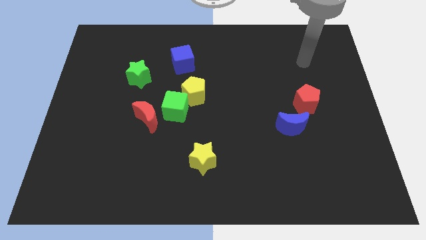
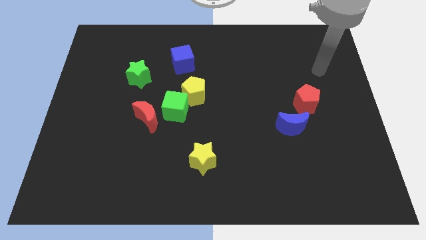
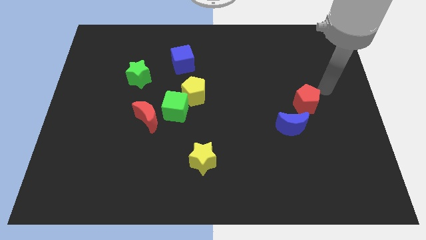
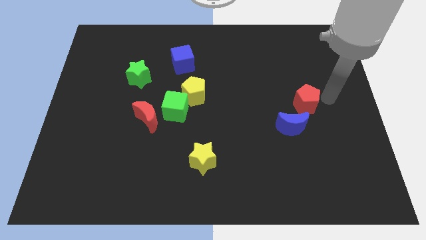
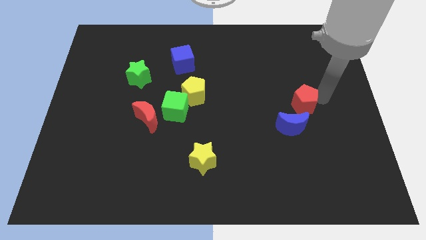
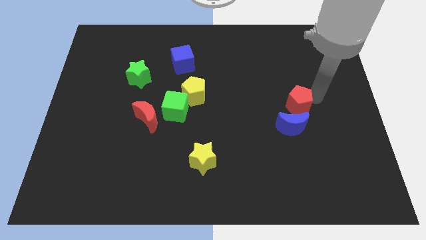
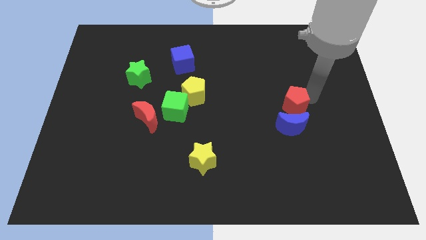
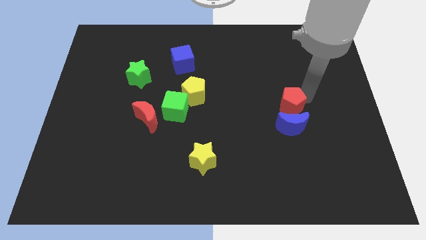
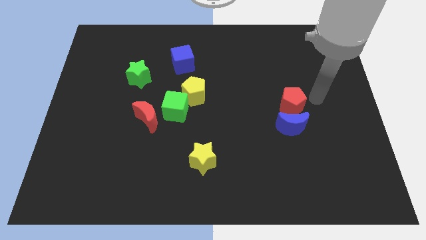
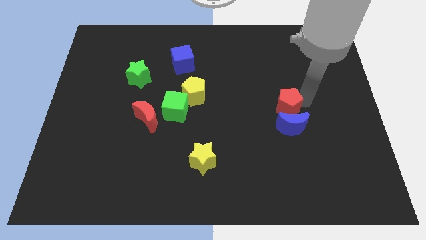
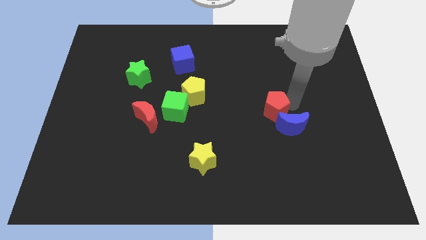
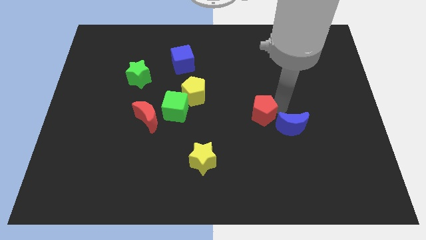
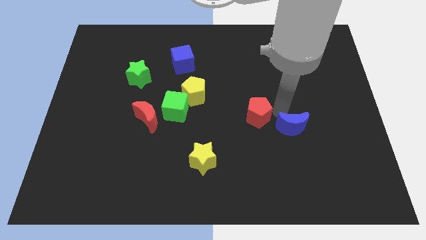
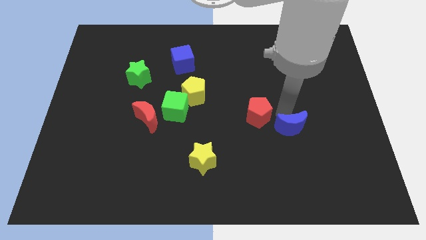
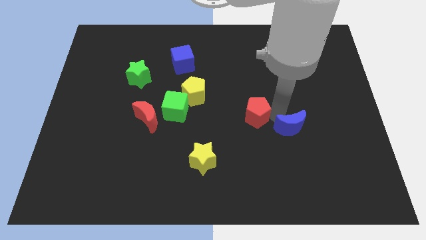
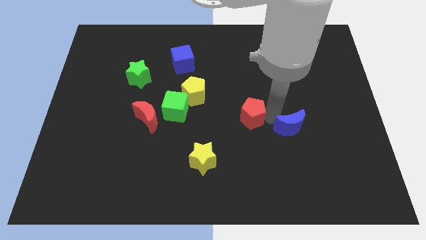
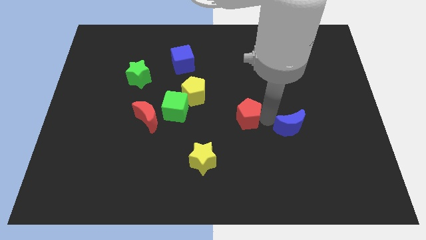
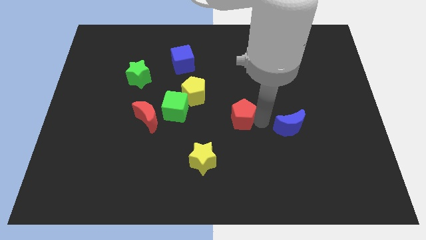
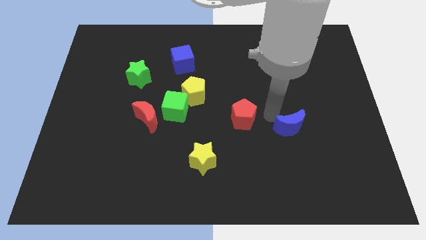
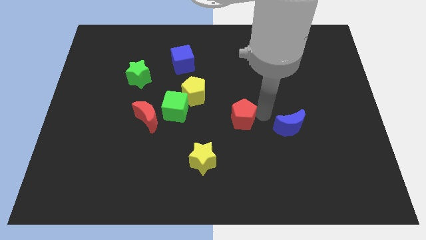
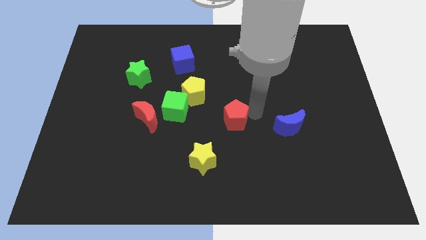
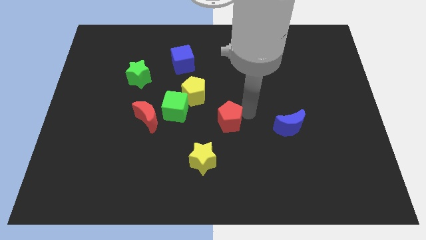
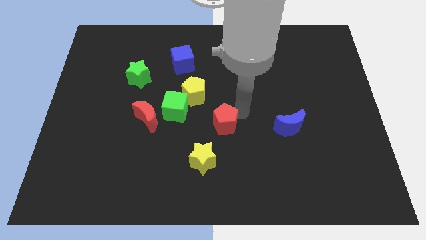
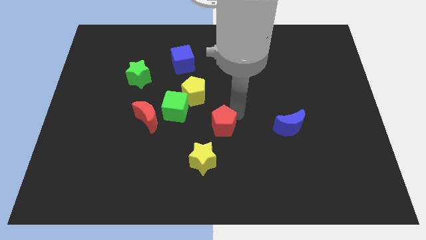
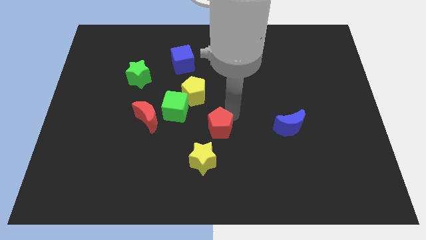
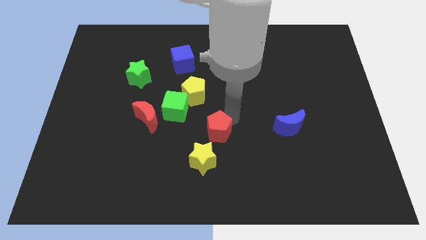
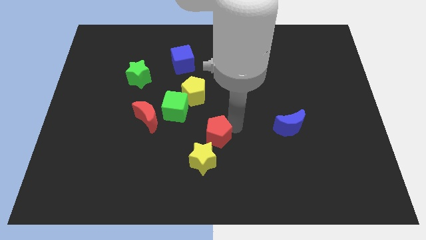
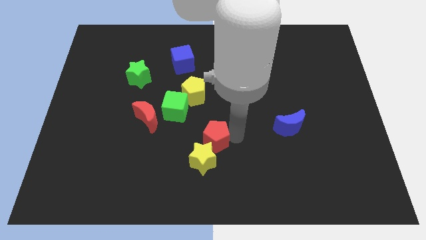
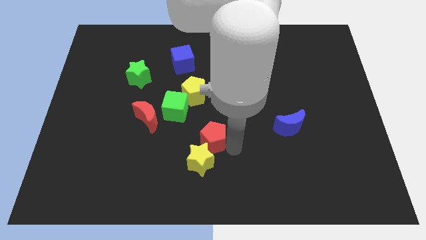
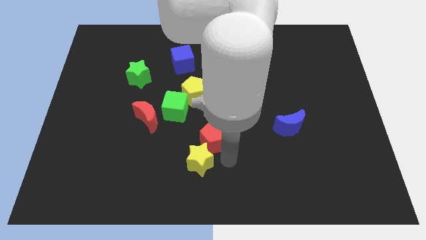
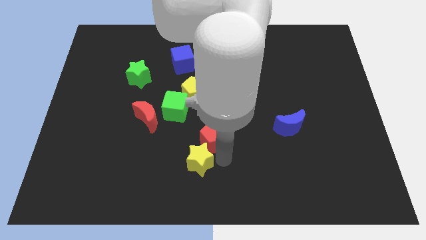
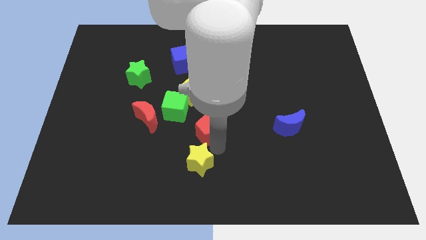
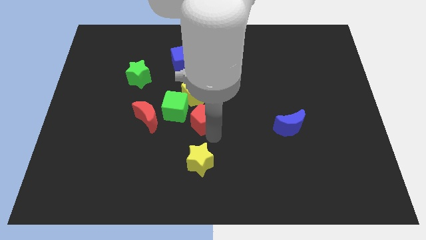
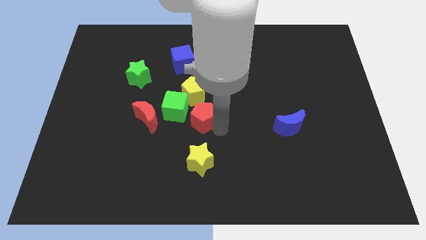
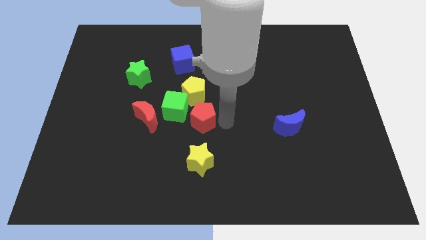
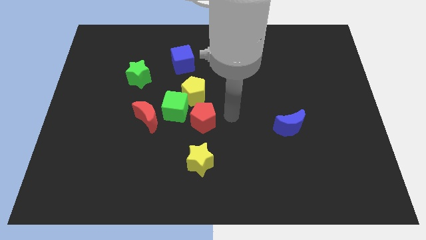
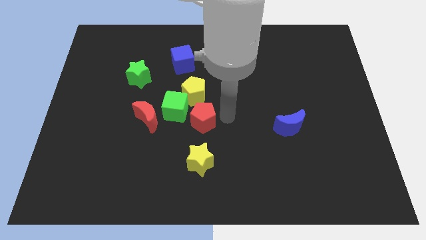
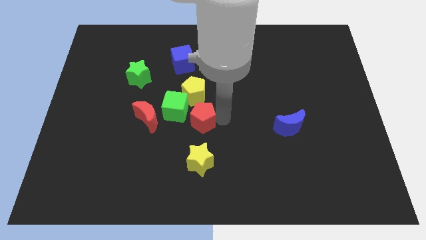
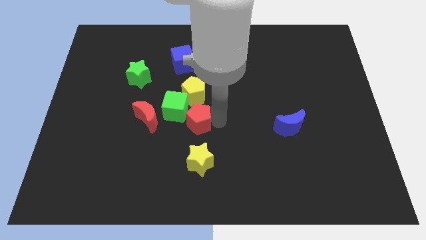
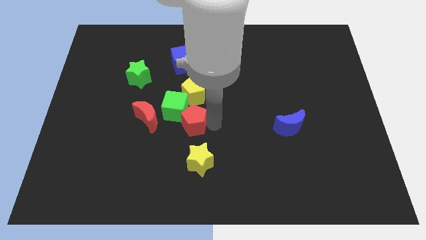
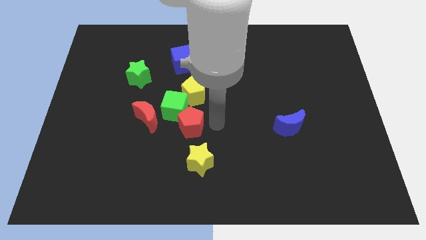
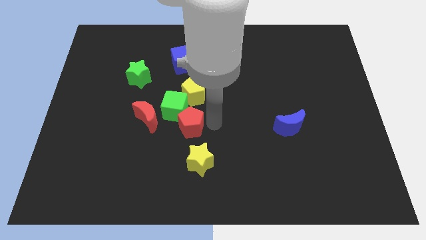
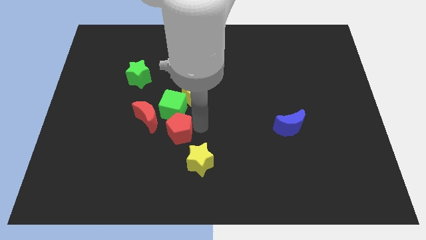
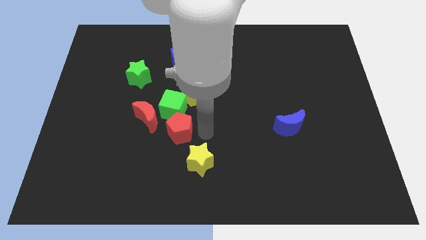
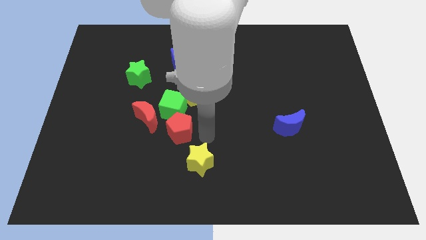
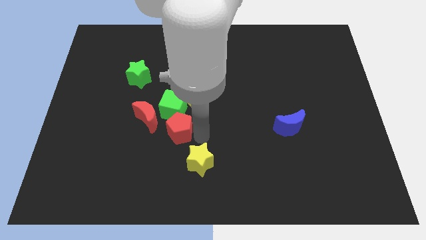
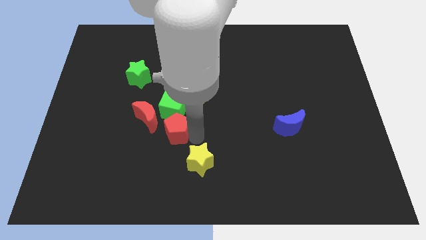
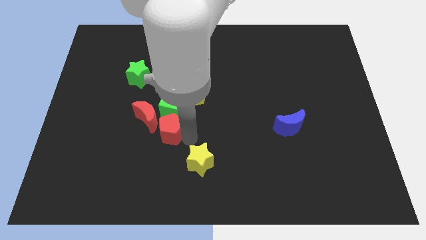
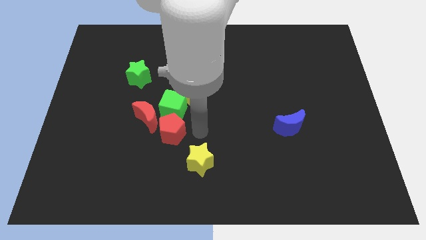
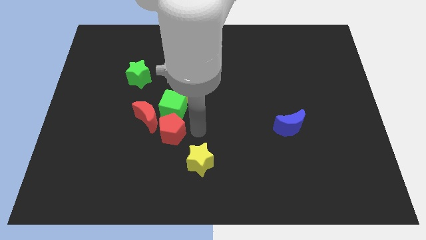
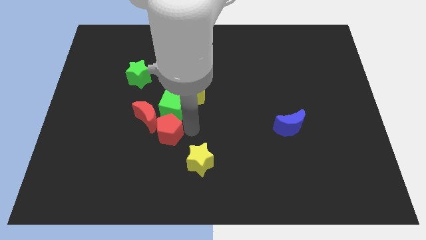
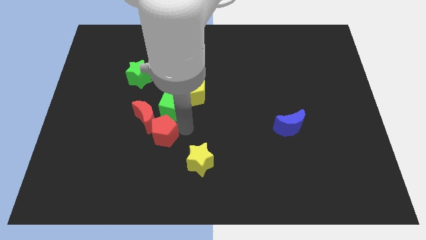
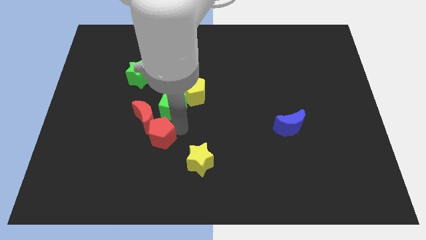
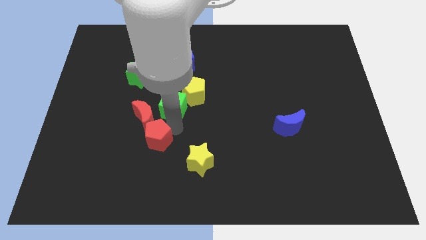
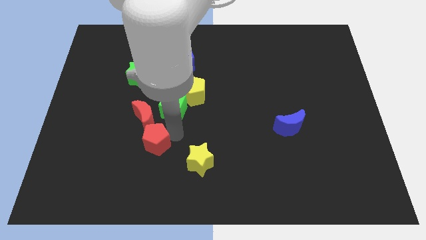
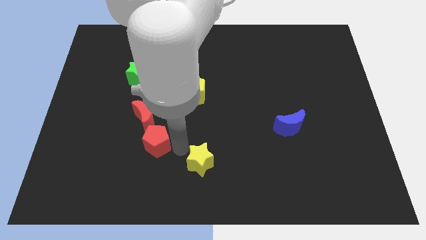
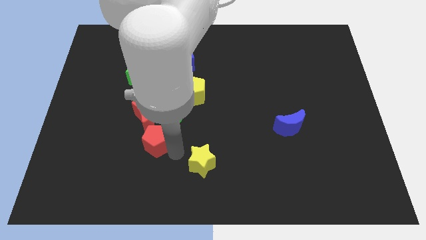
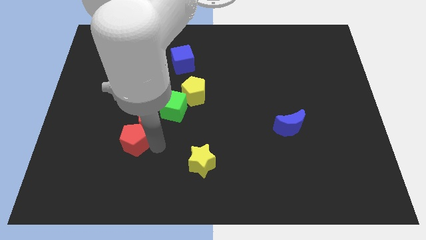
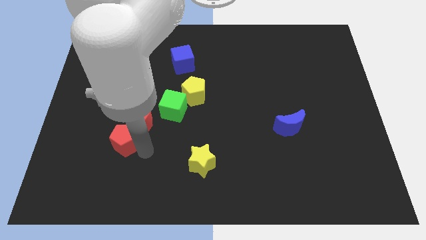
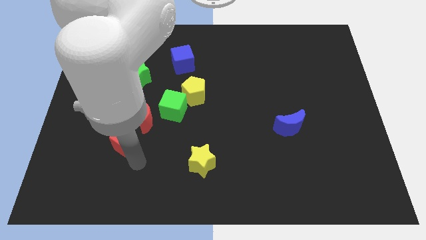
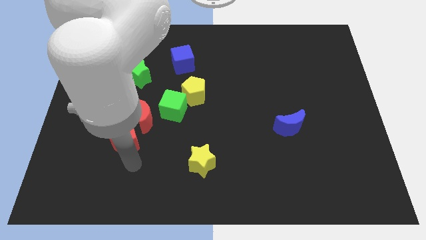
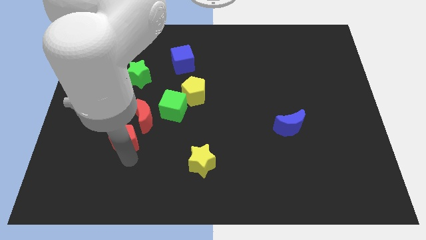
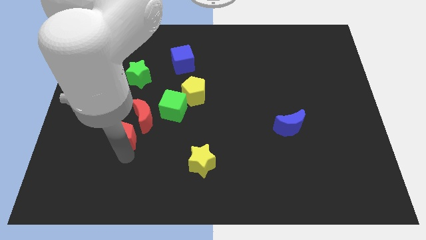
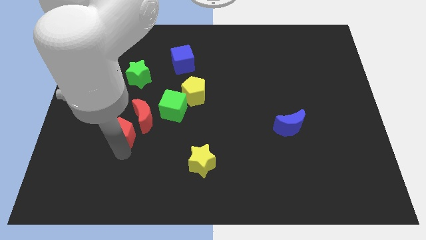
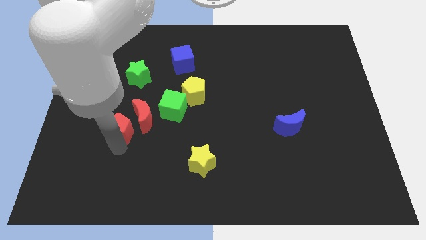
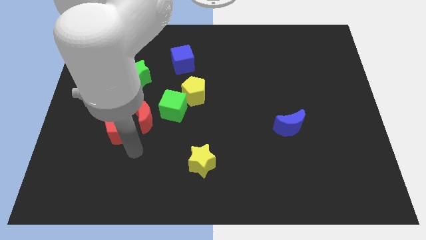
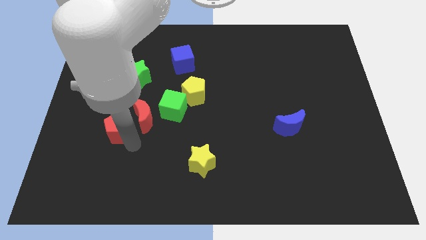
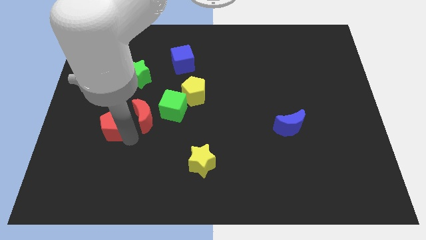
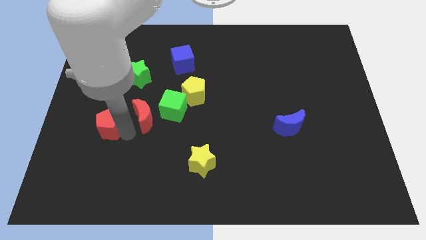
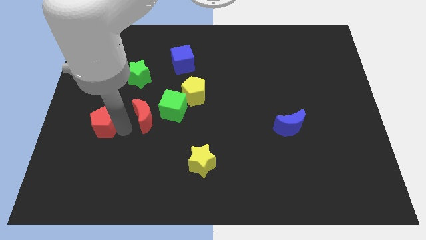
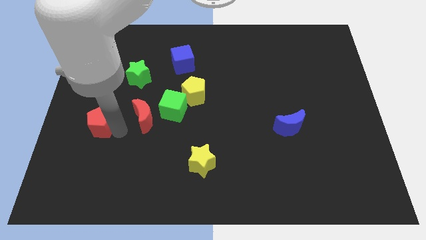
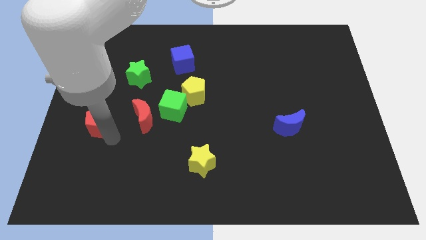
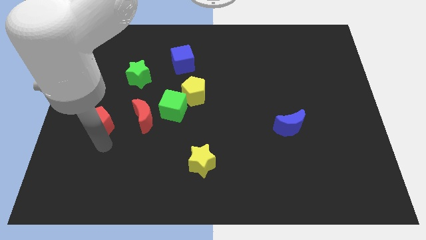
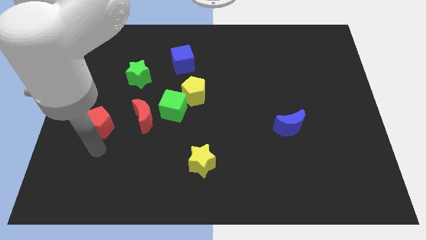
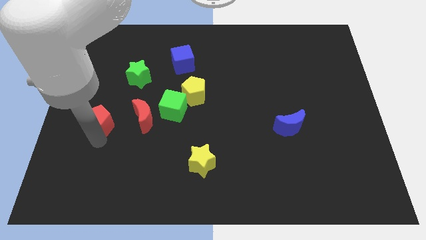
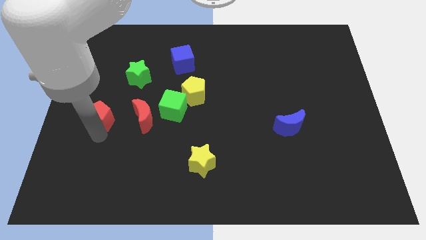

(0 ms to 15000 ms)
slide the red pentagon to the left side of the board
